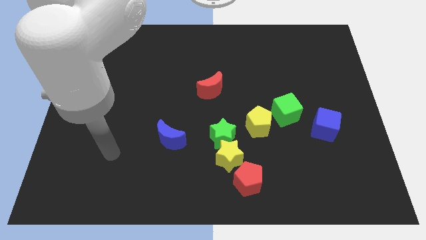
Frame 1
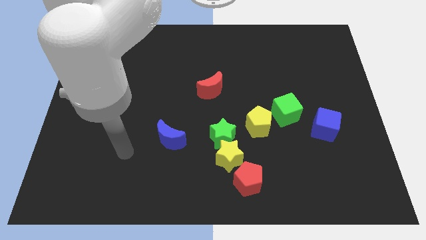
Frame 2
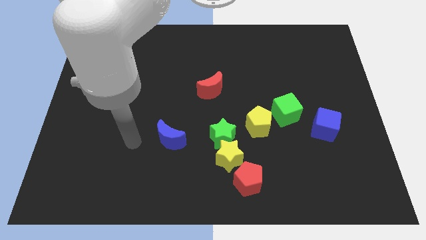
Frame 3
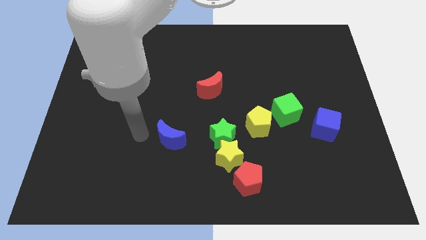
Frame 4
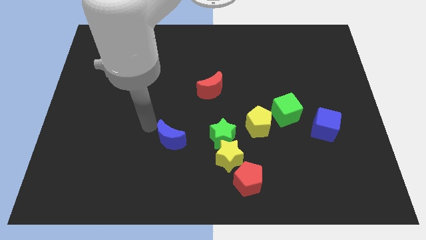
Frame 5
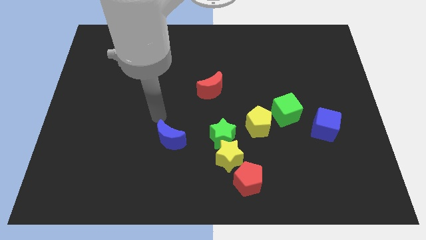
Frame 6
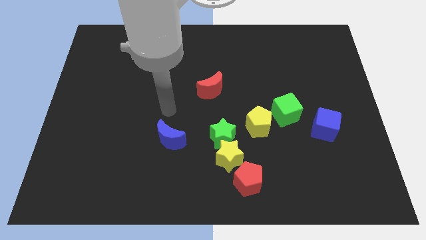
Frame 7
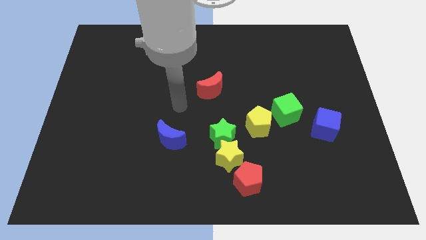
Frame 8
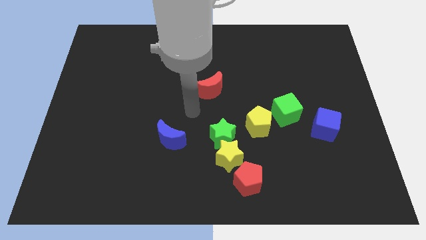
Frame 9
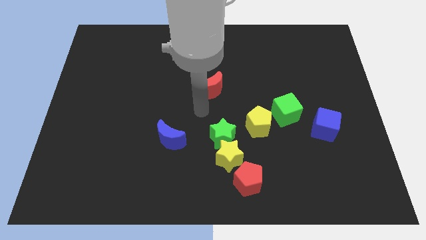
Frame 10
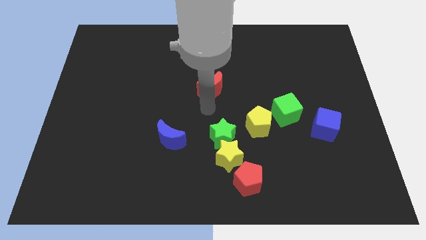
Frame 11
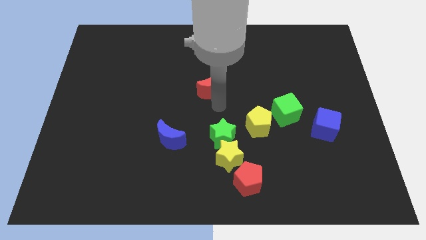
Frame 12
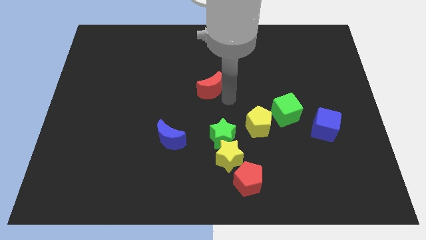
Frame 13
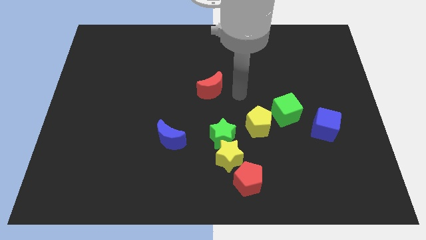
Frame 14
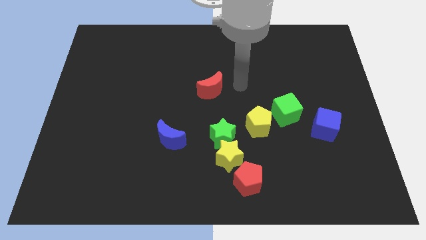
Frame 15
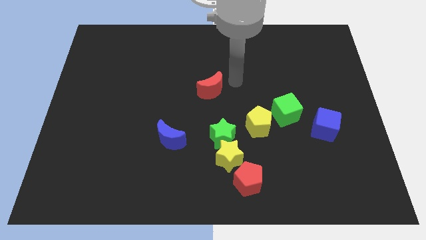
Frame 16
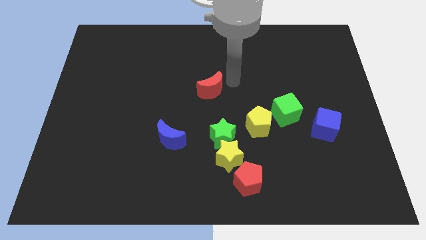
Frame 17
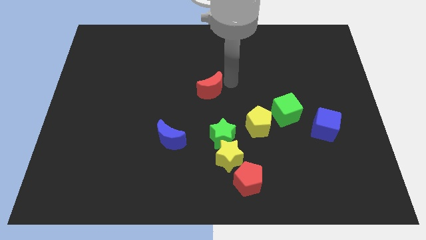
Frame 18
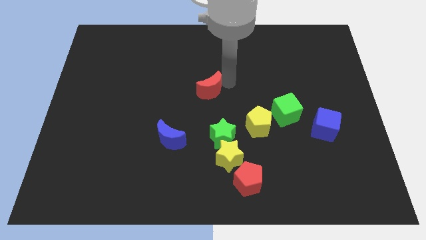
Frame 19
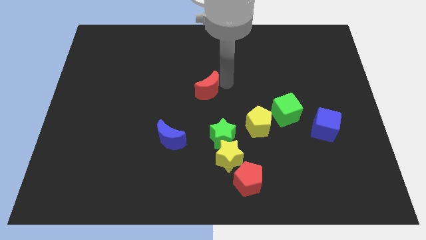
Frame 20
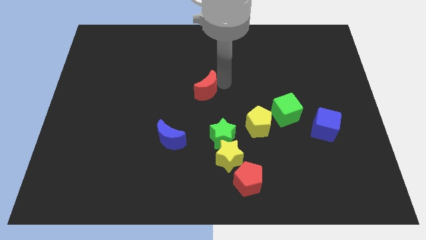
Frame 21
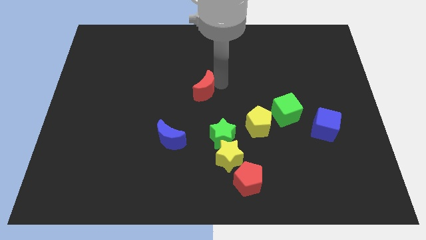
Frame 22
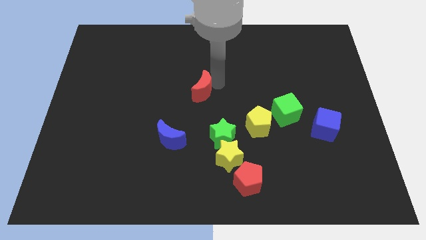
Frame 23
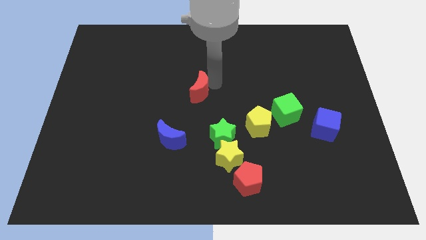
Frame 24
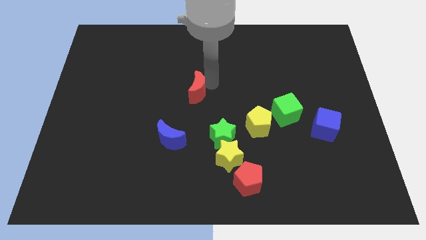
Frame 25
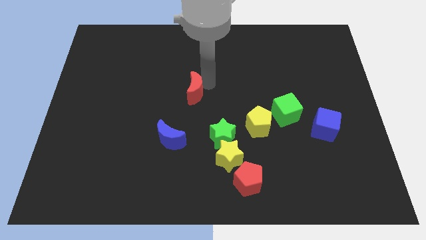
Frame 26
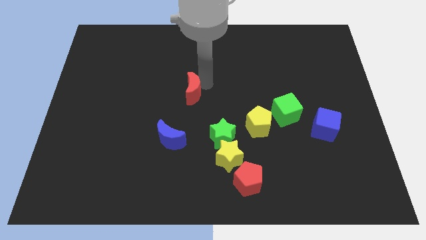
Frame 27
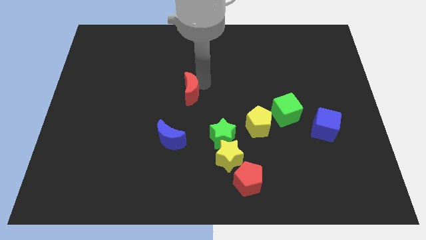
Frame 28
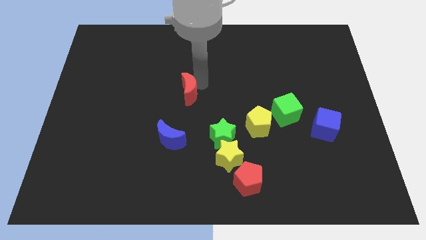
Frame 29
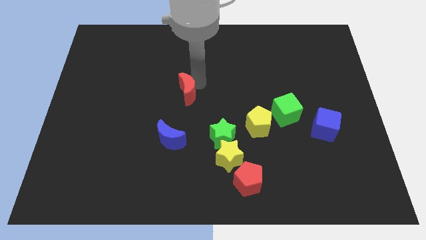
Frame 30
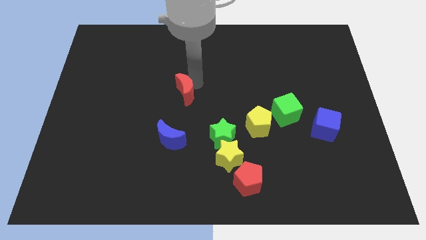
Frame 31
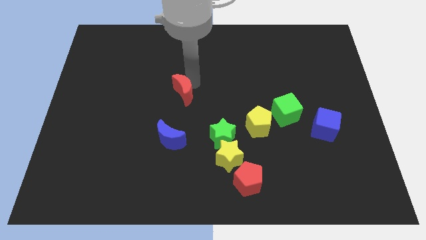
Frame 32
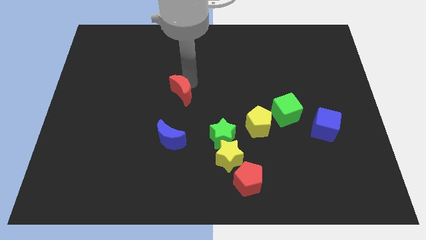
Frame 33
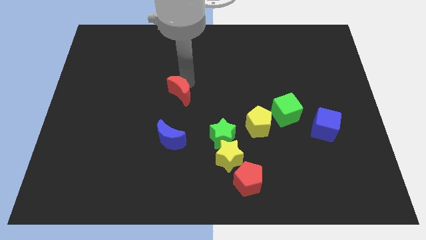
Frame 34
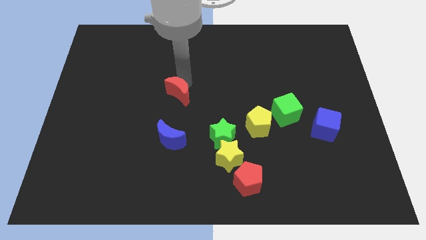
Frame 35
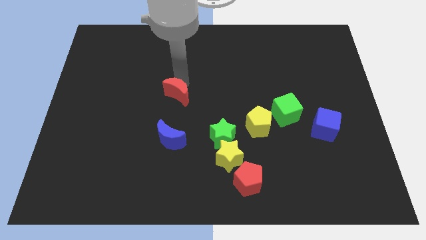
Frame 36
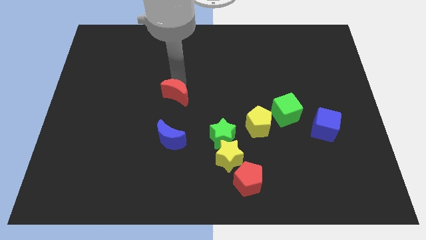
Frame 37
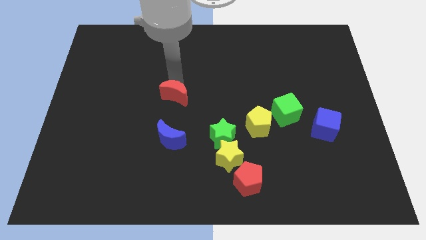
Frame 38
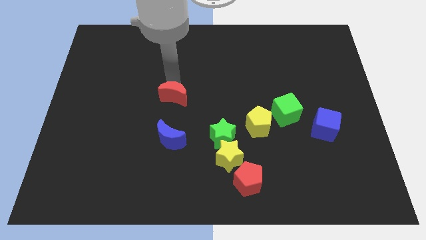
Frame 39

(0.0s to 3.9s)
slide the red moon somewhat down and left

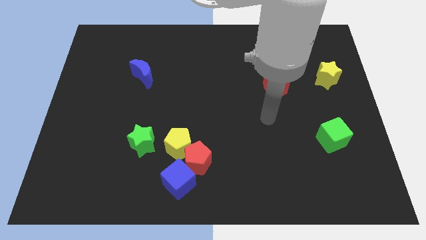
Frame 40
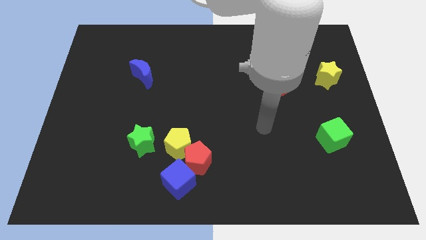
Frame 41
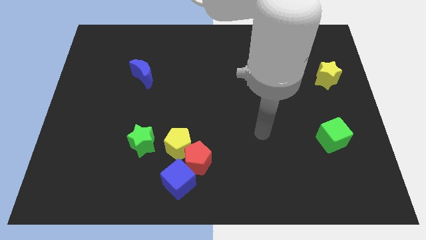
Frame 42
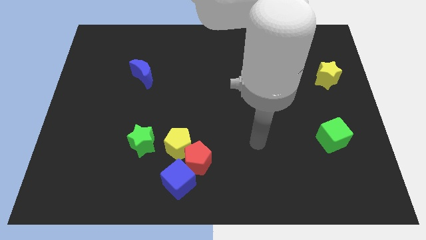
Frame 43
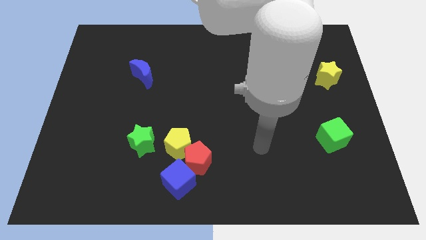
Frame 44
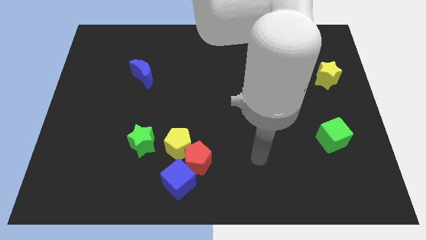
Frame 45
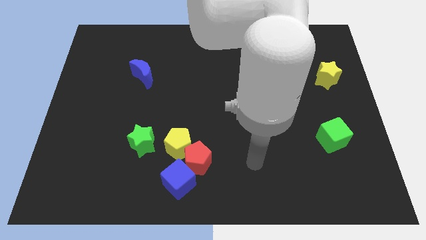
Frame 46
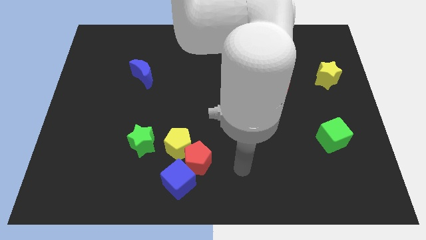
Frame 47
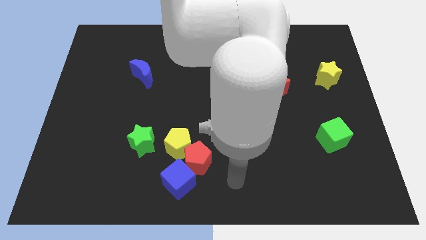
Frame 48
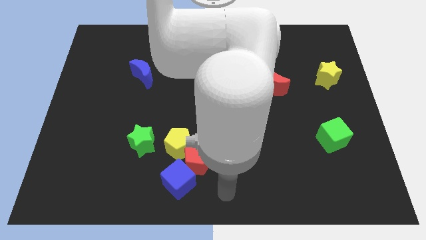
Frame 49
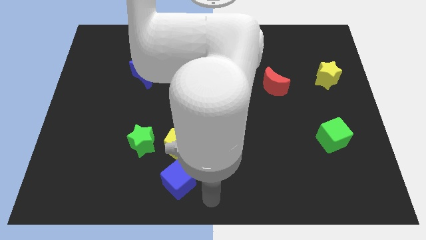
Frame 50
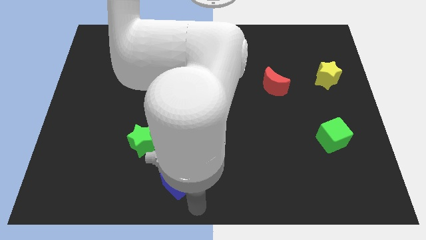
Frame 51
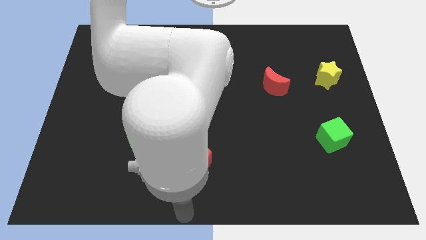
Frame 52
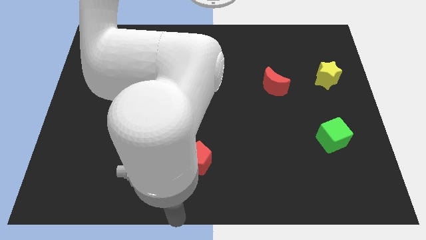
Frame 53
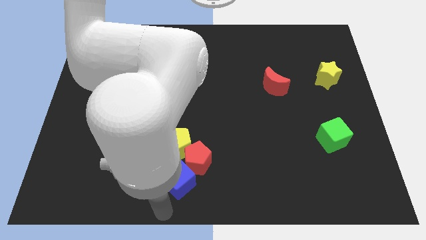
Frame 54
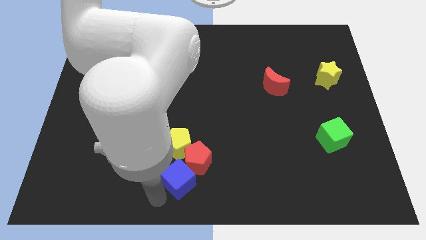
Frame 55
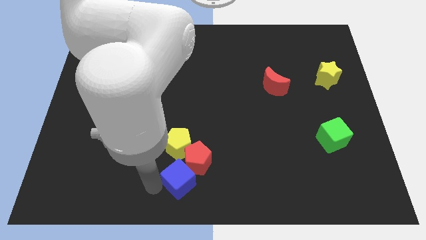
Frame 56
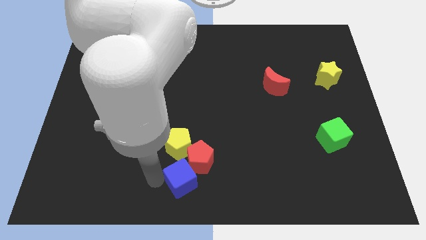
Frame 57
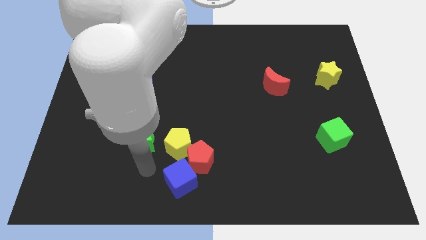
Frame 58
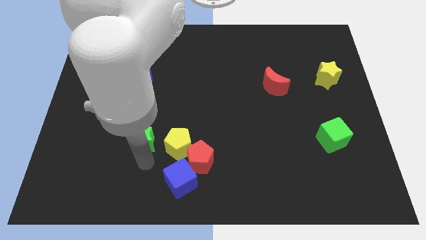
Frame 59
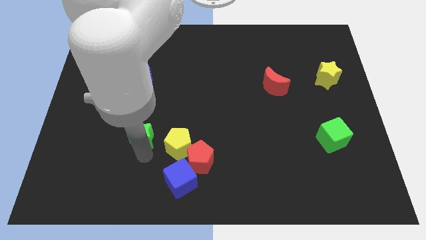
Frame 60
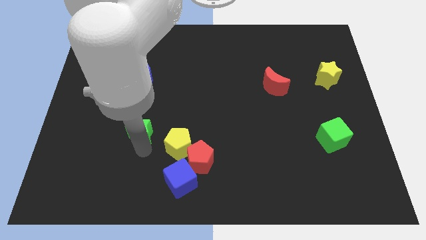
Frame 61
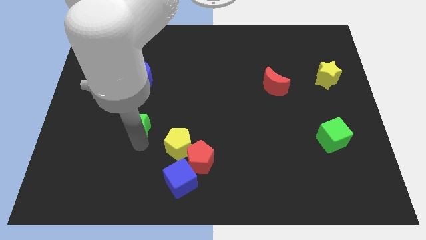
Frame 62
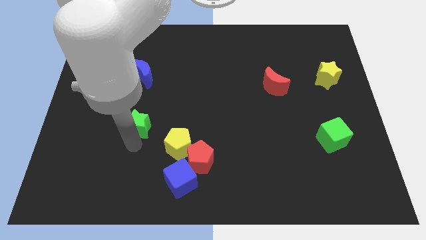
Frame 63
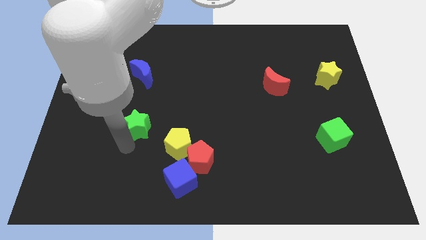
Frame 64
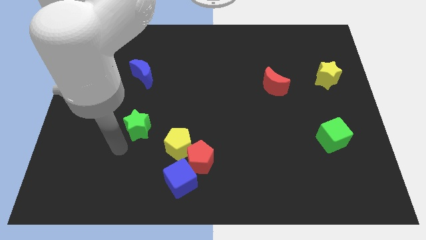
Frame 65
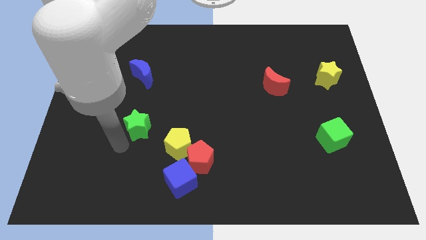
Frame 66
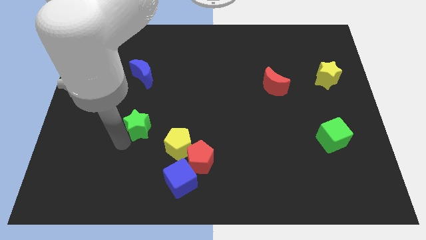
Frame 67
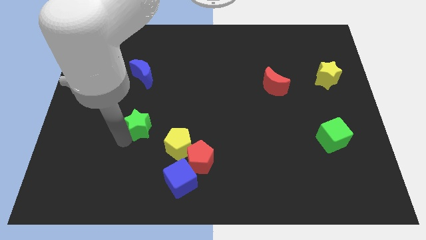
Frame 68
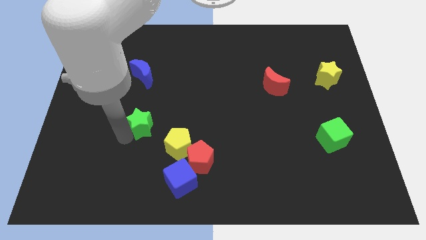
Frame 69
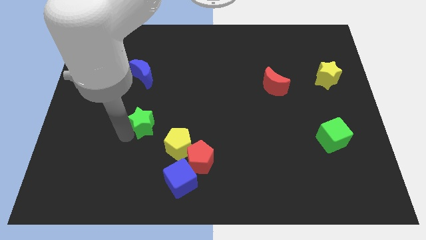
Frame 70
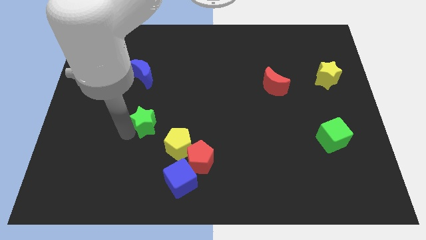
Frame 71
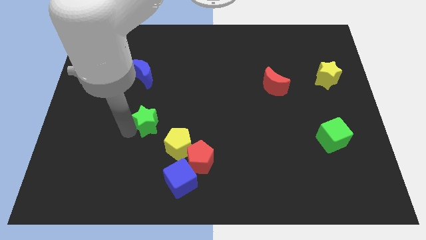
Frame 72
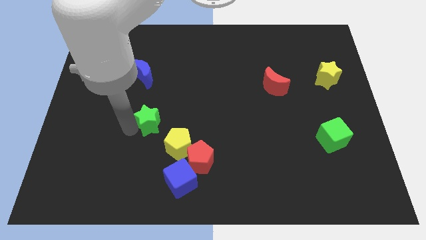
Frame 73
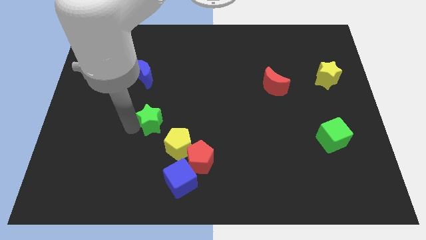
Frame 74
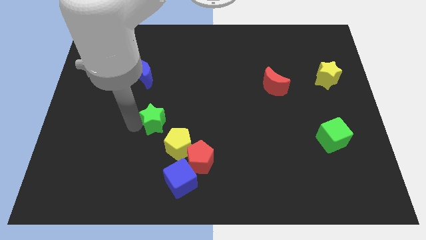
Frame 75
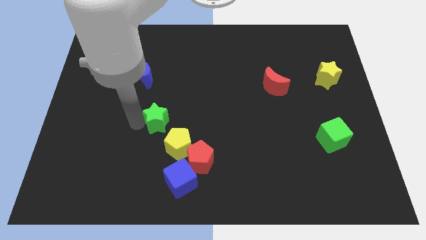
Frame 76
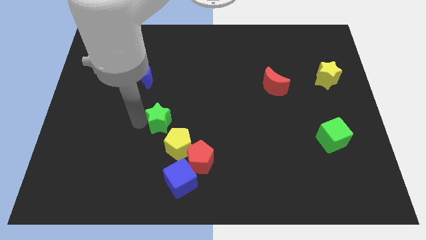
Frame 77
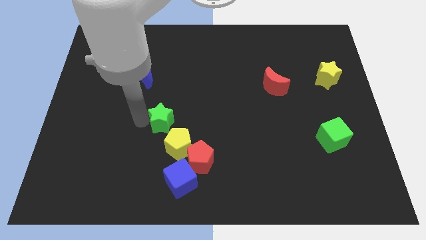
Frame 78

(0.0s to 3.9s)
slightly push the green star upwards and then to the right

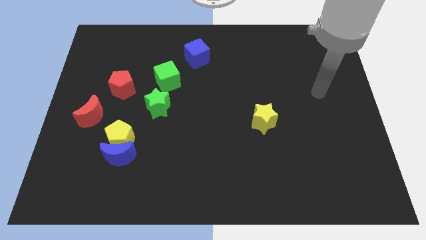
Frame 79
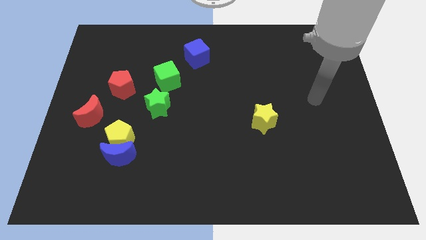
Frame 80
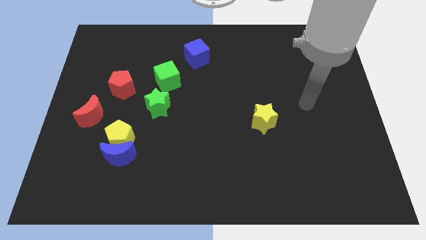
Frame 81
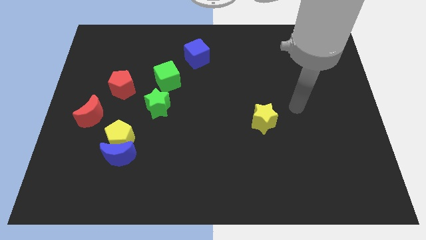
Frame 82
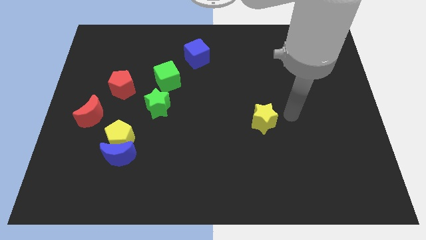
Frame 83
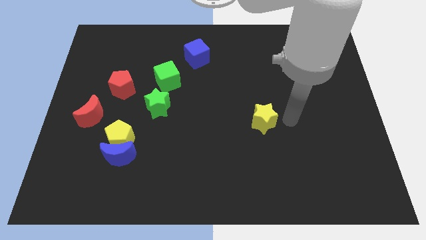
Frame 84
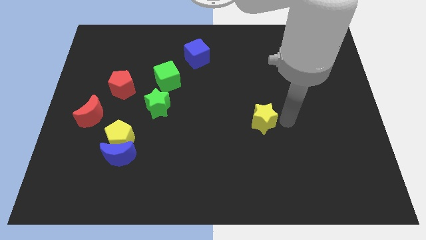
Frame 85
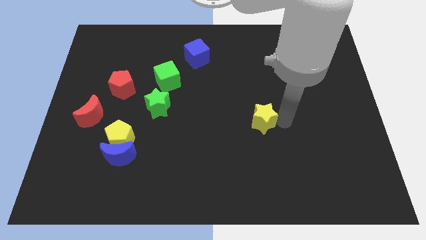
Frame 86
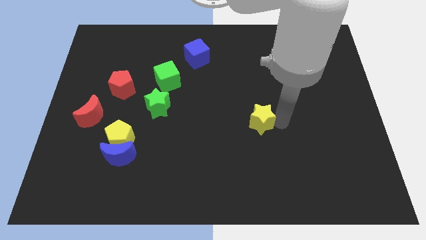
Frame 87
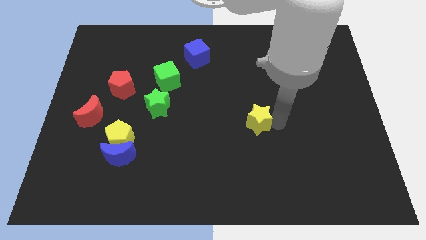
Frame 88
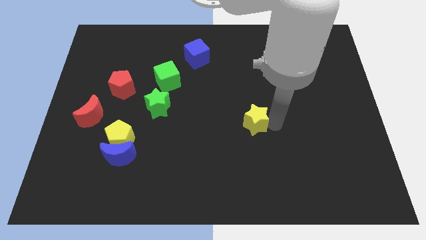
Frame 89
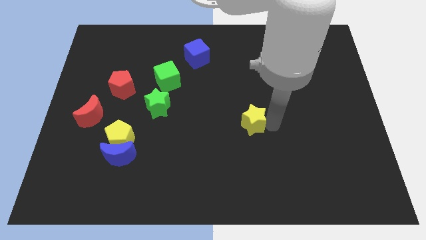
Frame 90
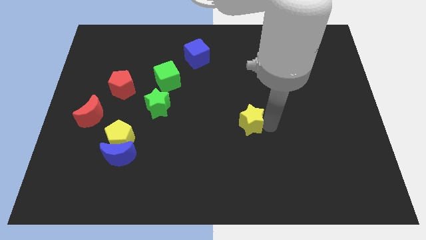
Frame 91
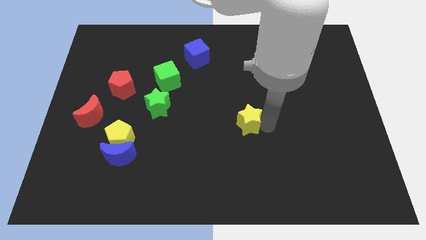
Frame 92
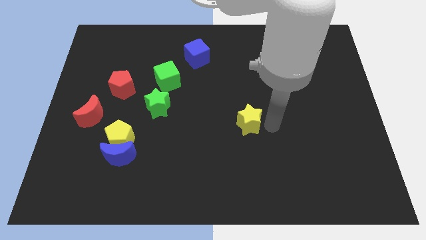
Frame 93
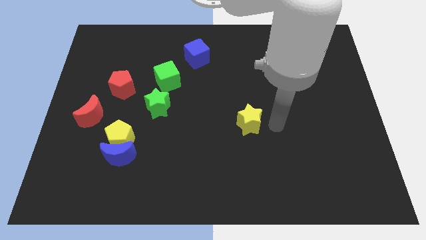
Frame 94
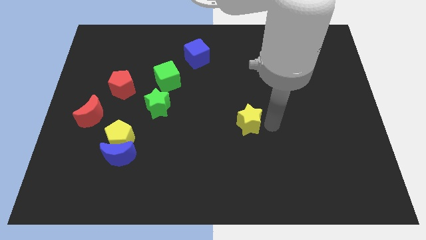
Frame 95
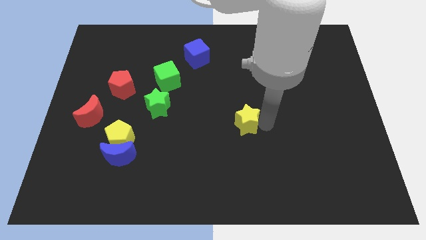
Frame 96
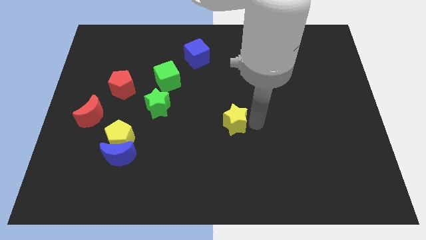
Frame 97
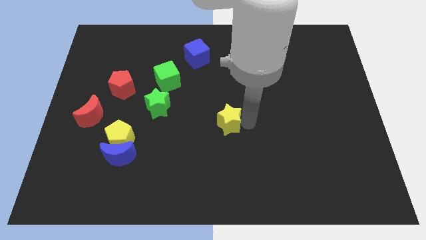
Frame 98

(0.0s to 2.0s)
slightly push the yellow star to the left
